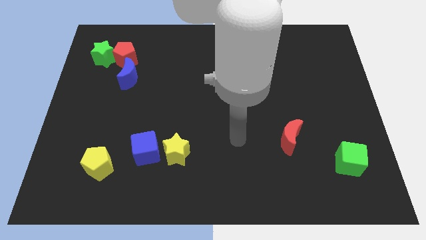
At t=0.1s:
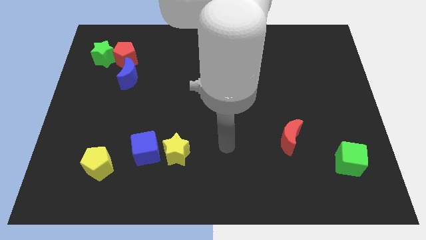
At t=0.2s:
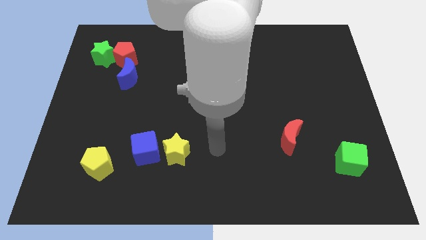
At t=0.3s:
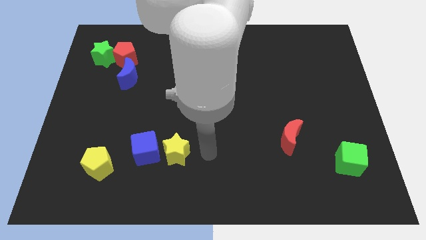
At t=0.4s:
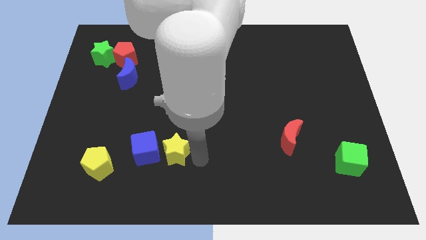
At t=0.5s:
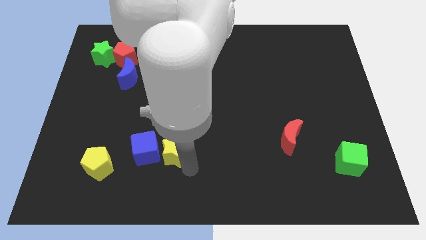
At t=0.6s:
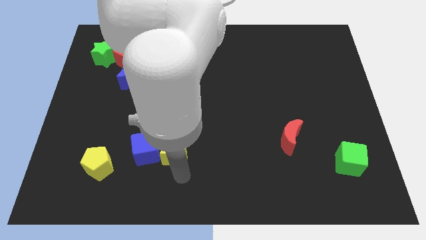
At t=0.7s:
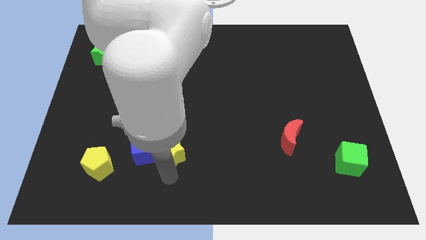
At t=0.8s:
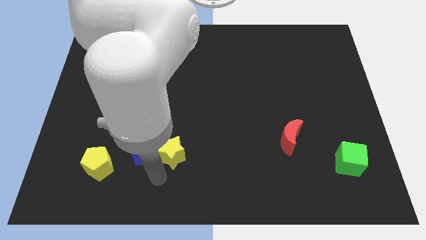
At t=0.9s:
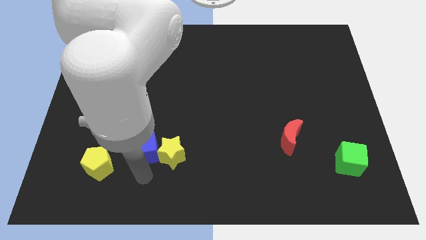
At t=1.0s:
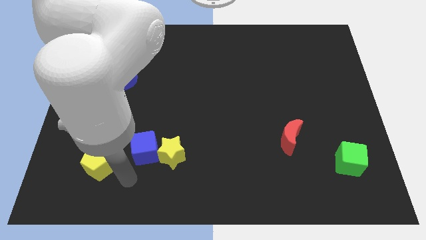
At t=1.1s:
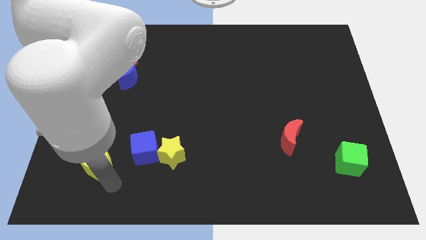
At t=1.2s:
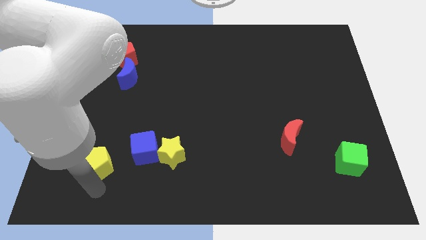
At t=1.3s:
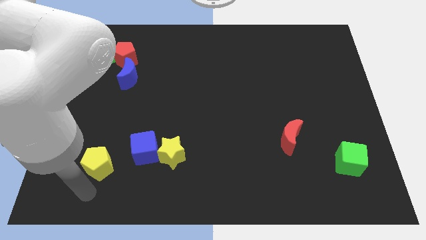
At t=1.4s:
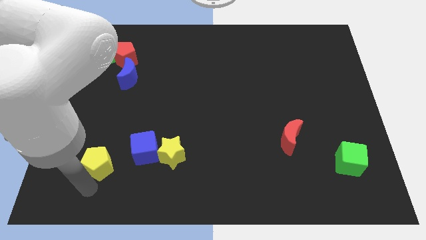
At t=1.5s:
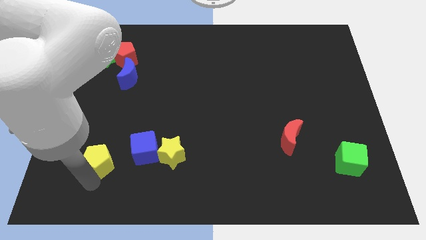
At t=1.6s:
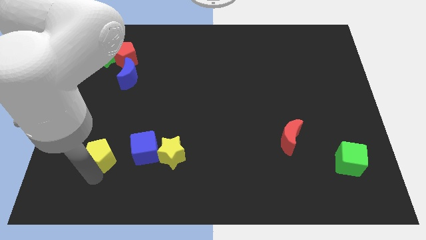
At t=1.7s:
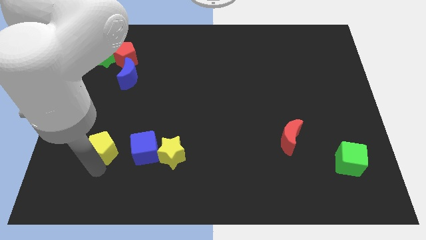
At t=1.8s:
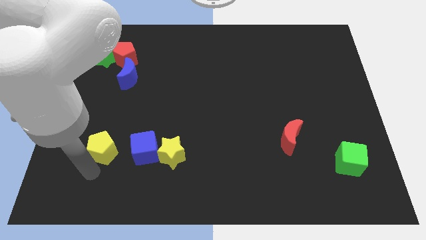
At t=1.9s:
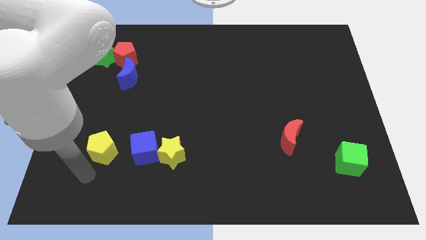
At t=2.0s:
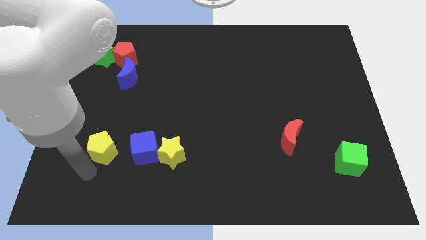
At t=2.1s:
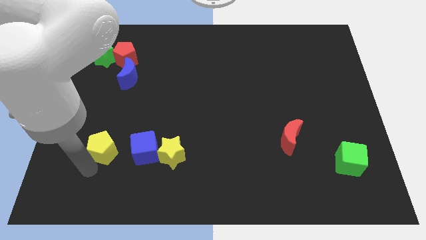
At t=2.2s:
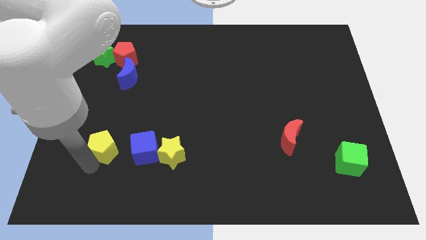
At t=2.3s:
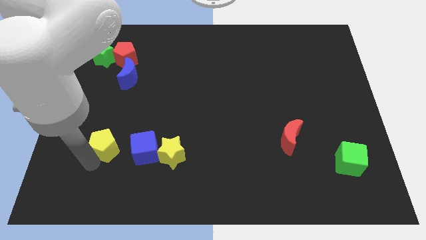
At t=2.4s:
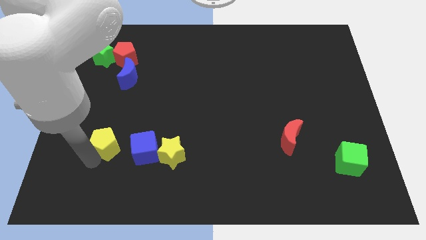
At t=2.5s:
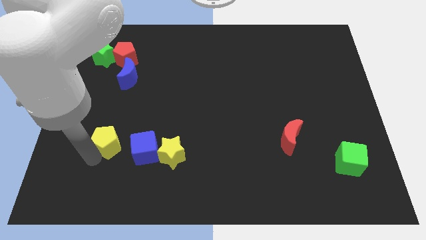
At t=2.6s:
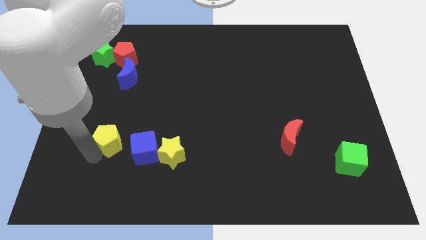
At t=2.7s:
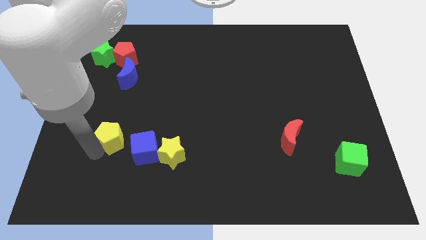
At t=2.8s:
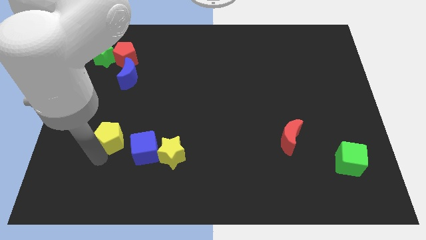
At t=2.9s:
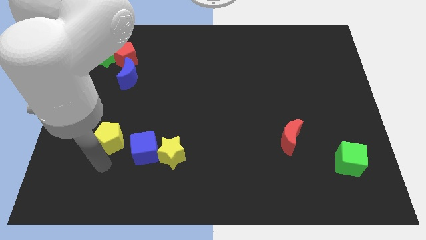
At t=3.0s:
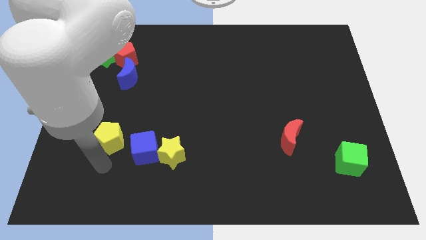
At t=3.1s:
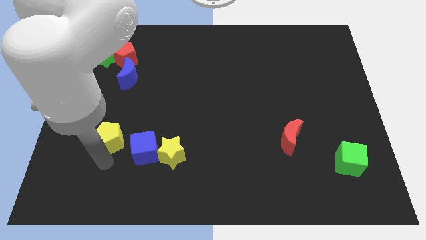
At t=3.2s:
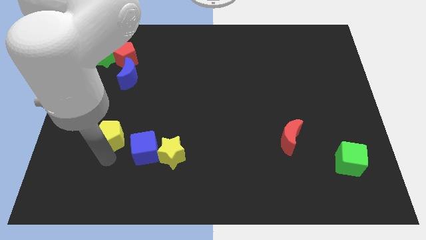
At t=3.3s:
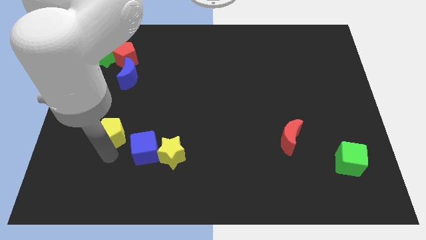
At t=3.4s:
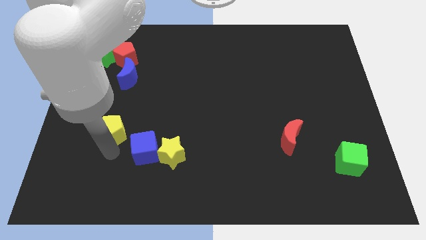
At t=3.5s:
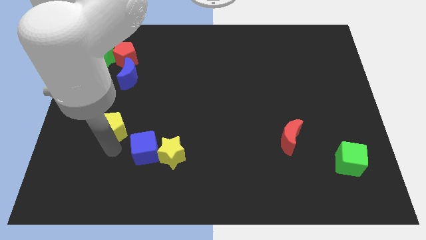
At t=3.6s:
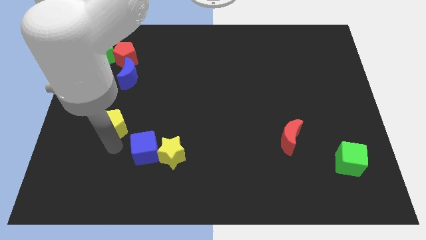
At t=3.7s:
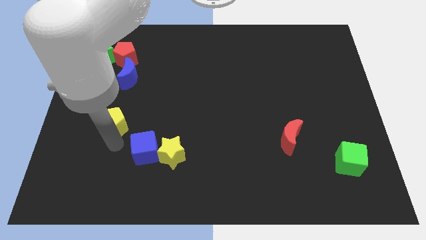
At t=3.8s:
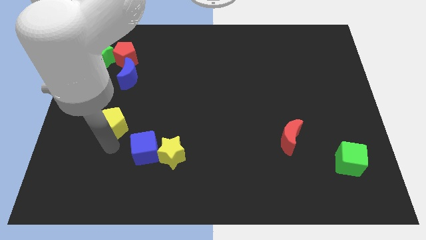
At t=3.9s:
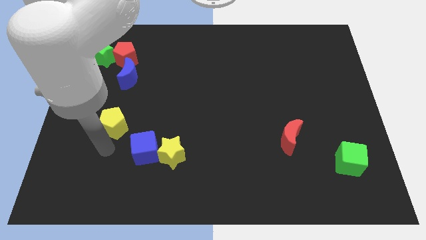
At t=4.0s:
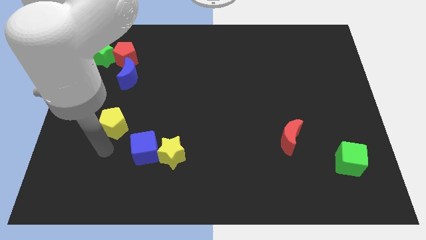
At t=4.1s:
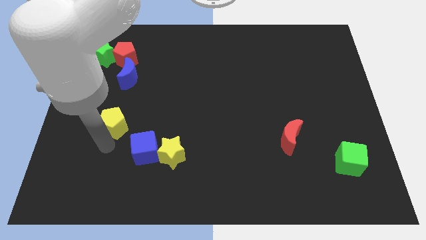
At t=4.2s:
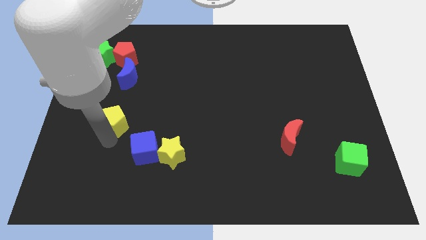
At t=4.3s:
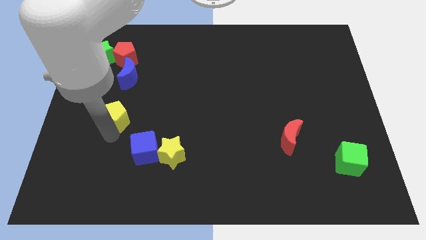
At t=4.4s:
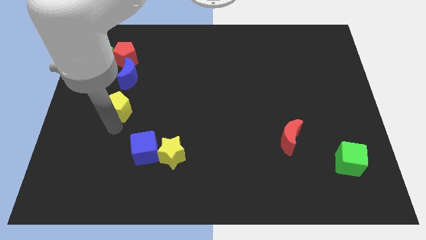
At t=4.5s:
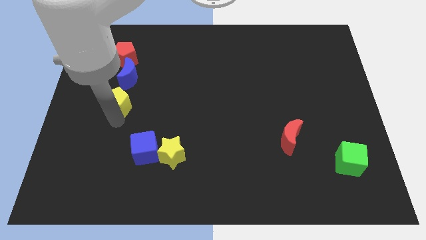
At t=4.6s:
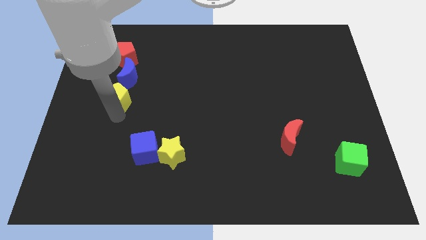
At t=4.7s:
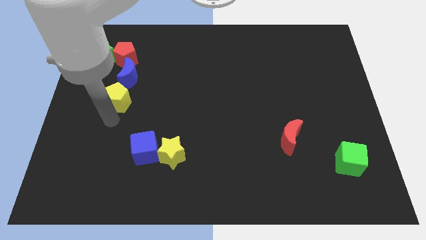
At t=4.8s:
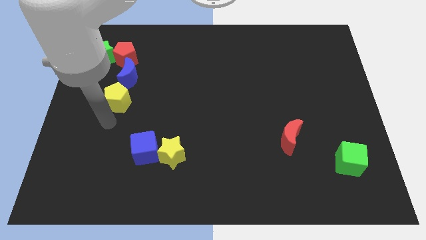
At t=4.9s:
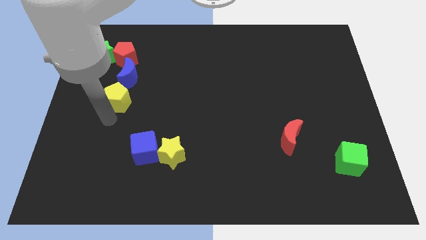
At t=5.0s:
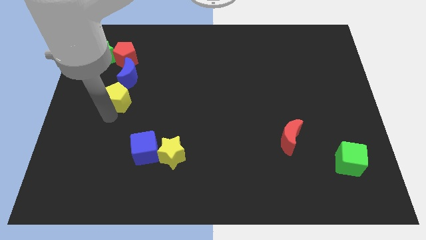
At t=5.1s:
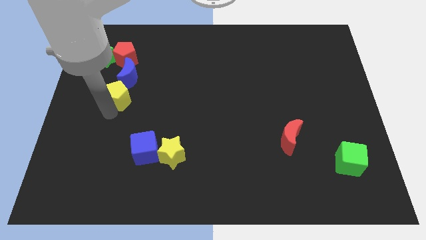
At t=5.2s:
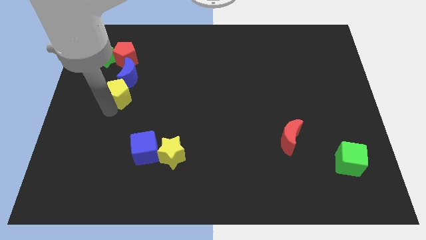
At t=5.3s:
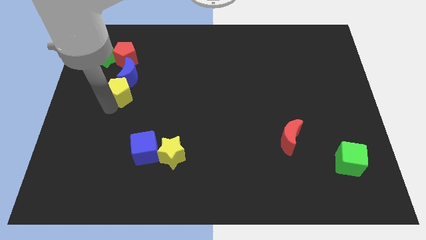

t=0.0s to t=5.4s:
slide the yellow pentagon close to the blue moon

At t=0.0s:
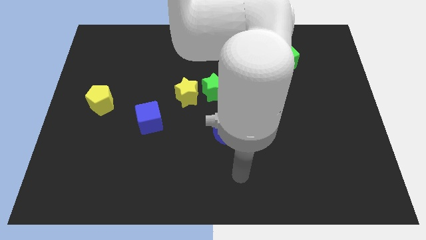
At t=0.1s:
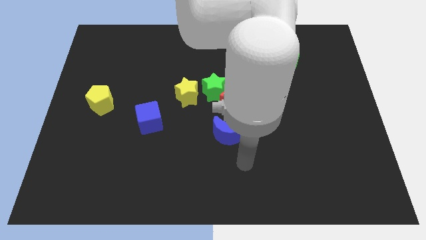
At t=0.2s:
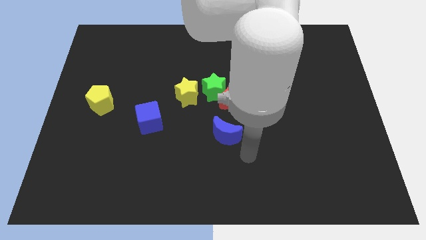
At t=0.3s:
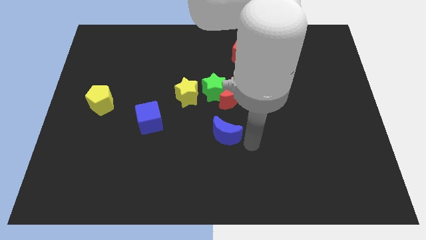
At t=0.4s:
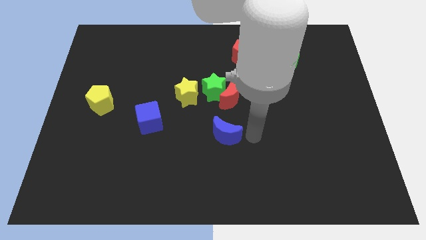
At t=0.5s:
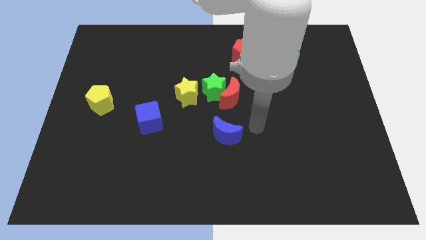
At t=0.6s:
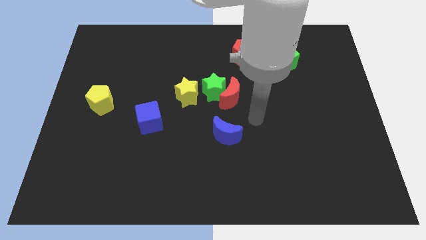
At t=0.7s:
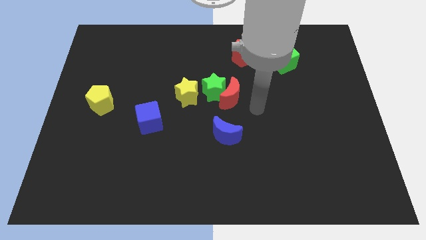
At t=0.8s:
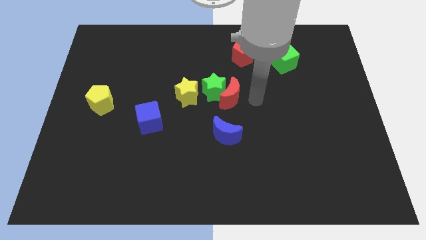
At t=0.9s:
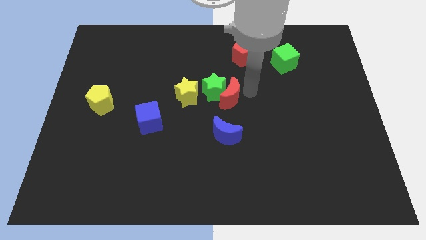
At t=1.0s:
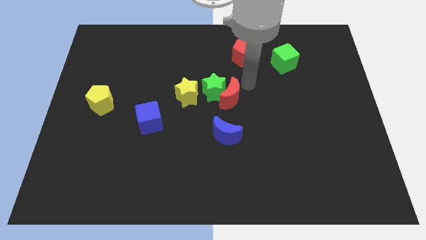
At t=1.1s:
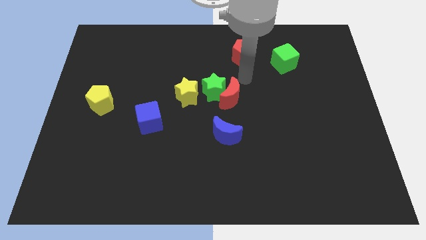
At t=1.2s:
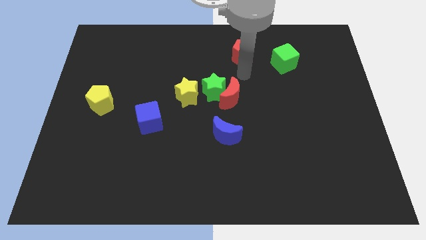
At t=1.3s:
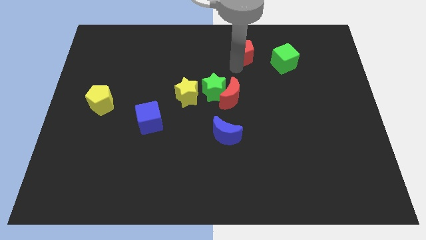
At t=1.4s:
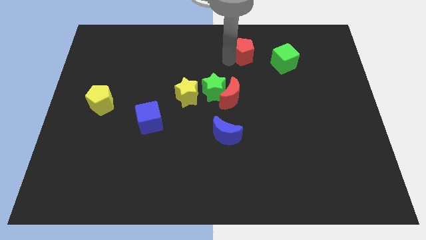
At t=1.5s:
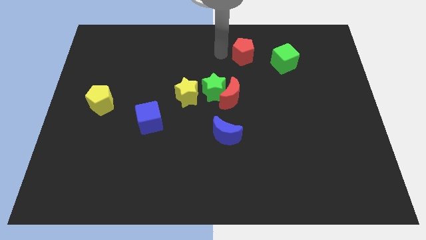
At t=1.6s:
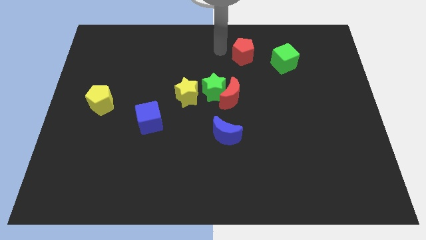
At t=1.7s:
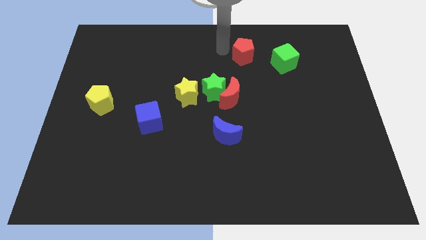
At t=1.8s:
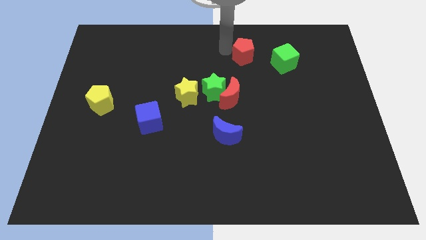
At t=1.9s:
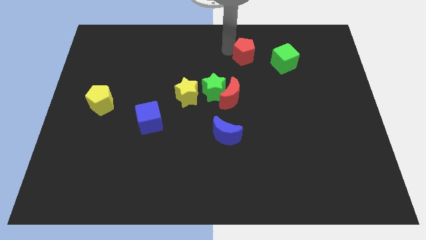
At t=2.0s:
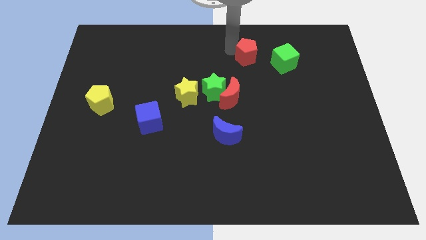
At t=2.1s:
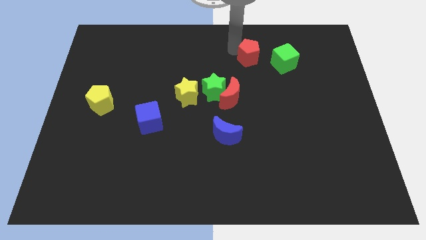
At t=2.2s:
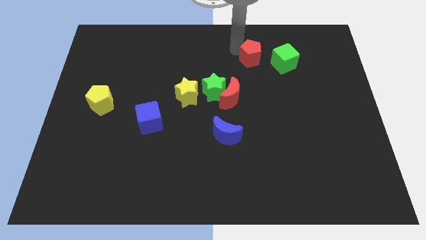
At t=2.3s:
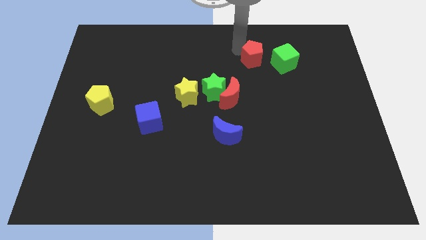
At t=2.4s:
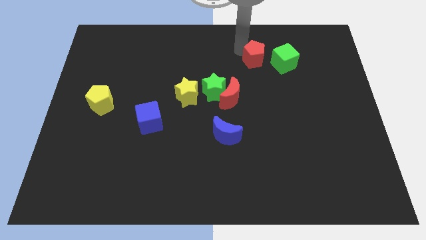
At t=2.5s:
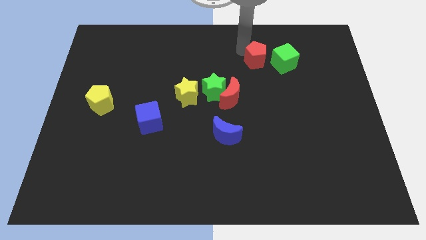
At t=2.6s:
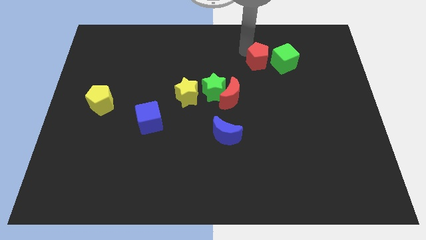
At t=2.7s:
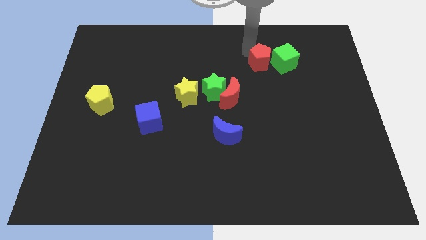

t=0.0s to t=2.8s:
push the red pentagon next to the green cube
